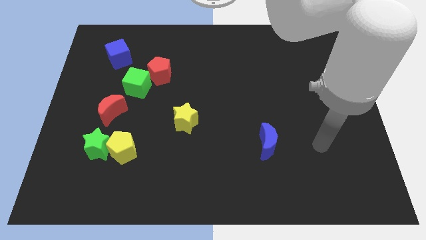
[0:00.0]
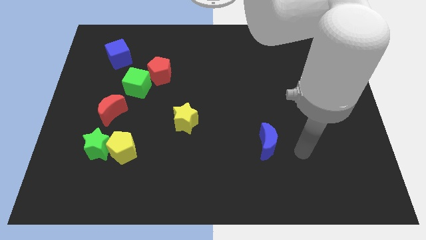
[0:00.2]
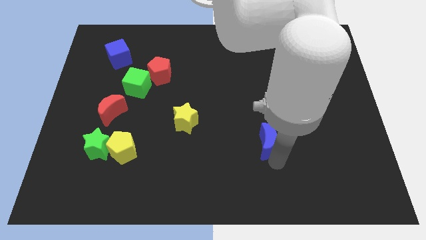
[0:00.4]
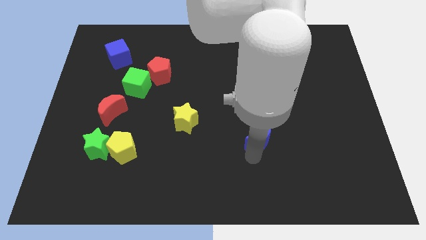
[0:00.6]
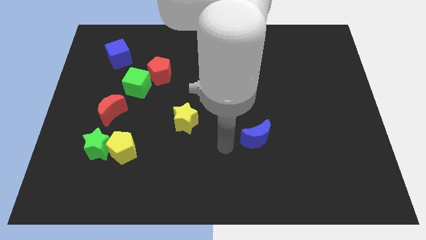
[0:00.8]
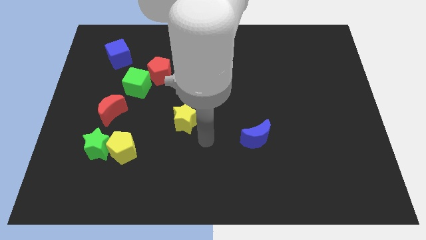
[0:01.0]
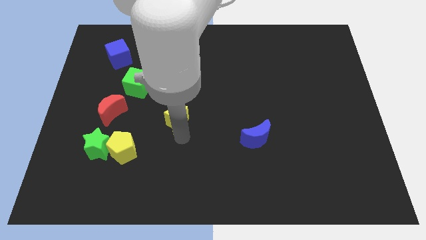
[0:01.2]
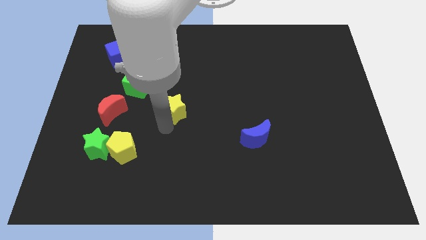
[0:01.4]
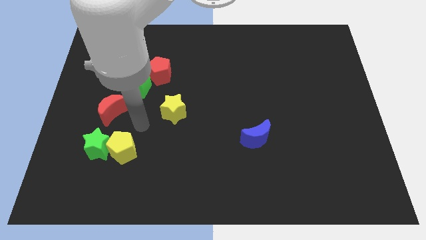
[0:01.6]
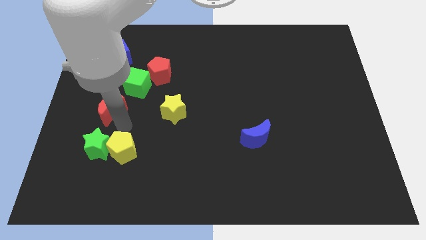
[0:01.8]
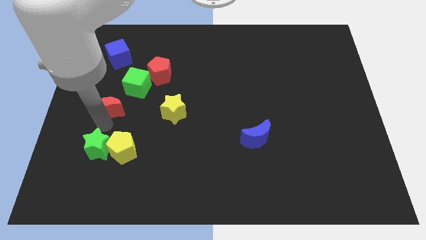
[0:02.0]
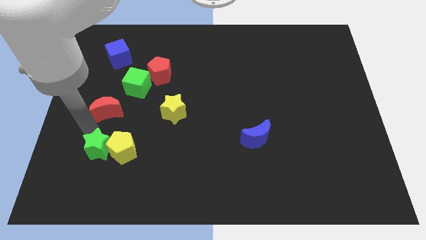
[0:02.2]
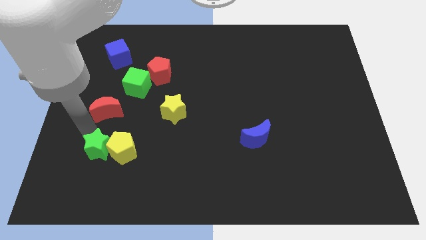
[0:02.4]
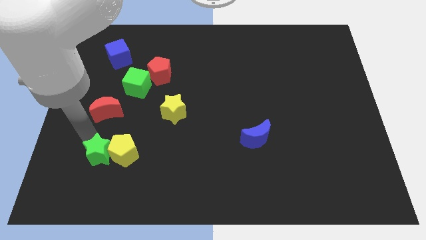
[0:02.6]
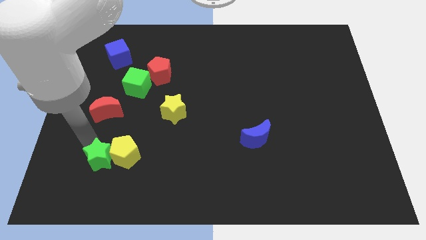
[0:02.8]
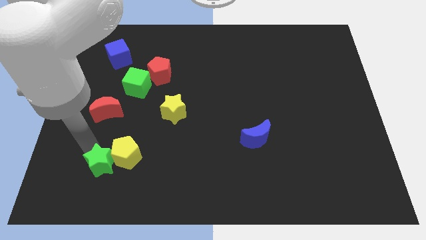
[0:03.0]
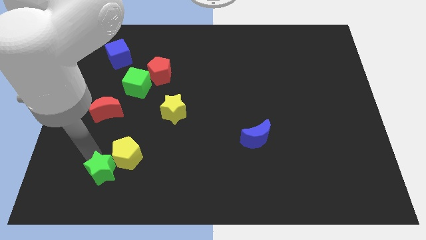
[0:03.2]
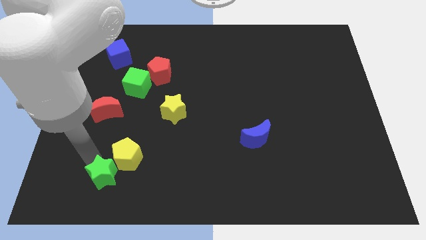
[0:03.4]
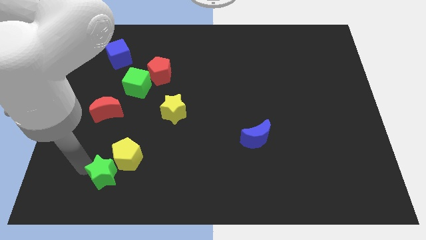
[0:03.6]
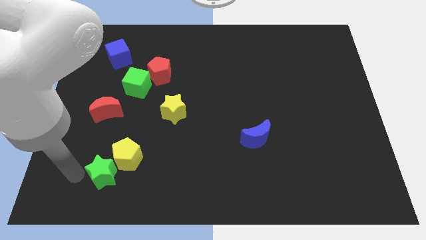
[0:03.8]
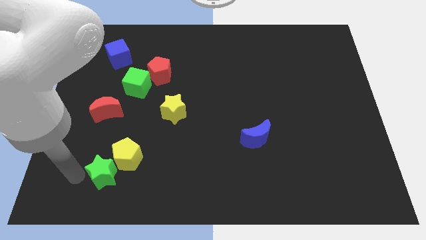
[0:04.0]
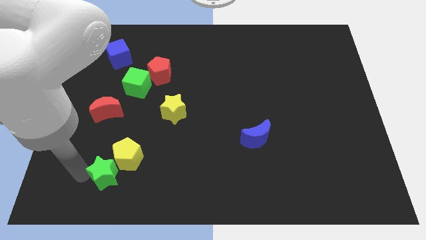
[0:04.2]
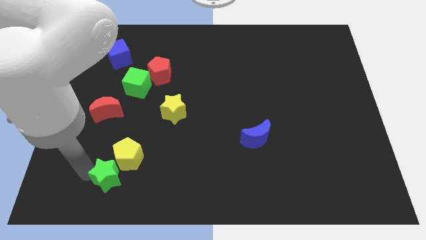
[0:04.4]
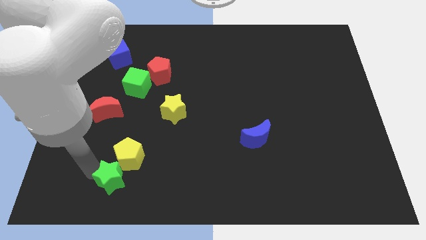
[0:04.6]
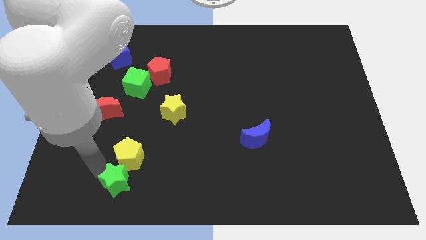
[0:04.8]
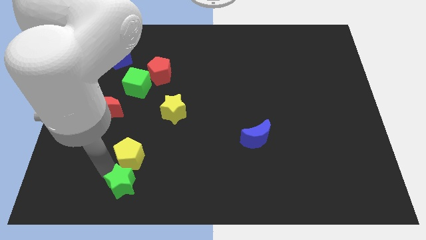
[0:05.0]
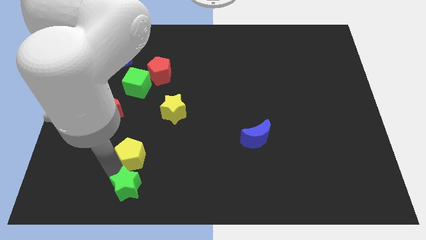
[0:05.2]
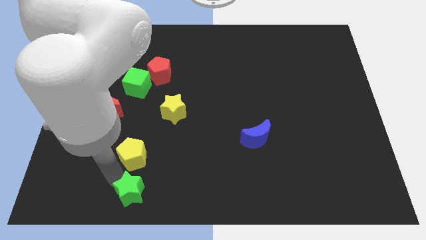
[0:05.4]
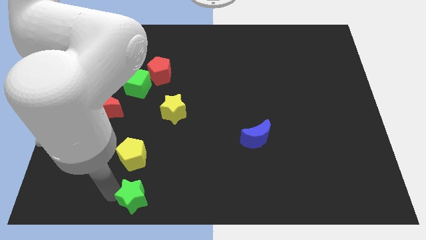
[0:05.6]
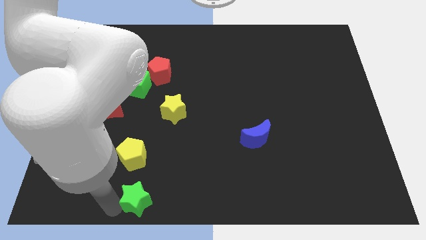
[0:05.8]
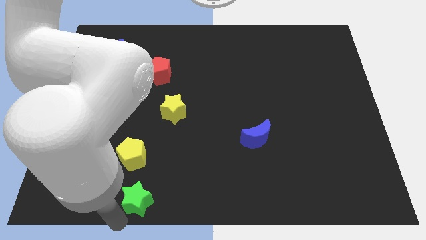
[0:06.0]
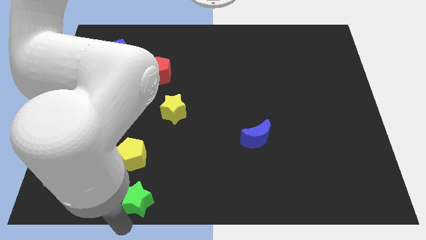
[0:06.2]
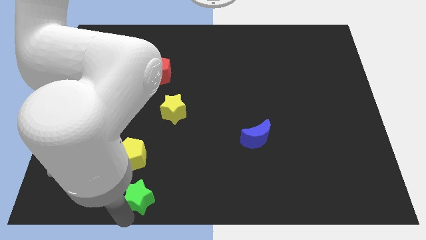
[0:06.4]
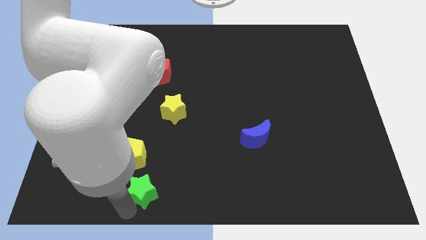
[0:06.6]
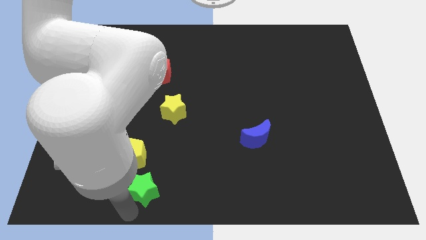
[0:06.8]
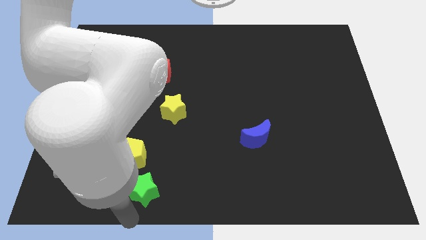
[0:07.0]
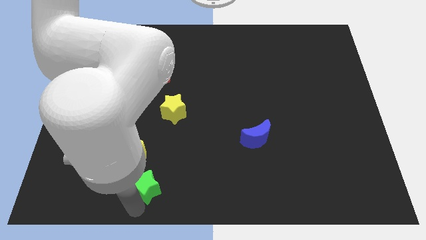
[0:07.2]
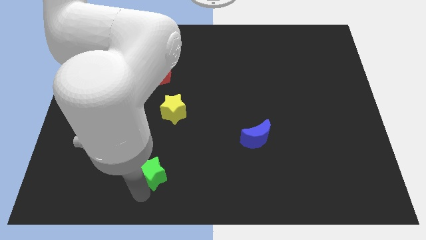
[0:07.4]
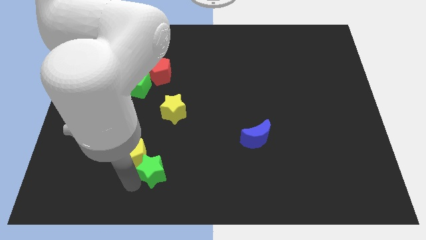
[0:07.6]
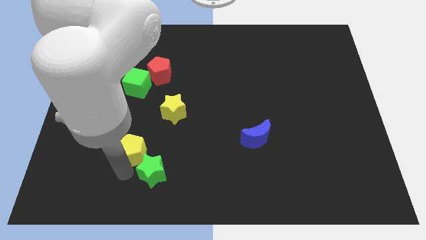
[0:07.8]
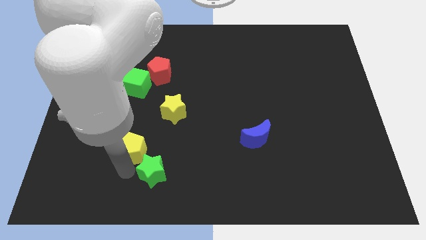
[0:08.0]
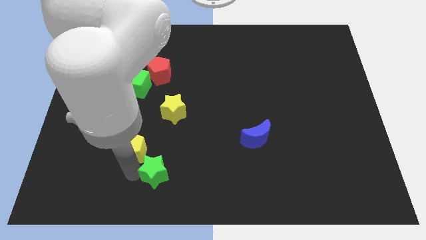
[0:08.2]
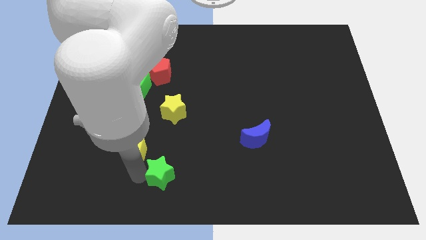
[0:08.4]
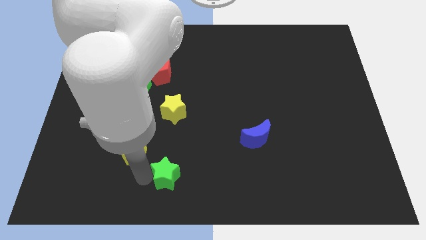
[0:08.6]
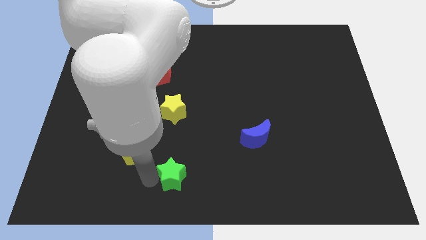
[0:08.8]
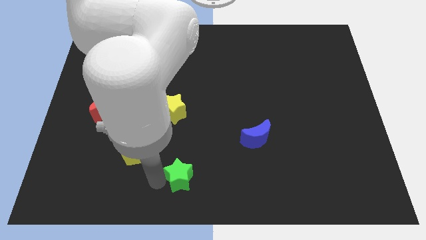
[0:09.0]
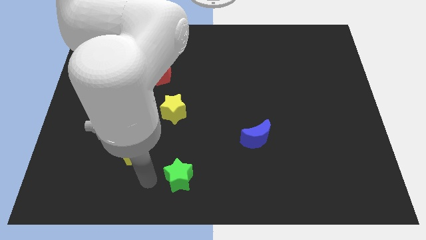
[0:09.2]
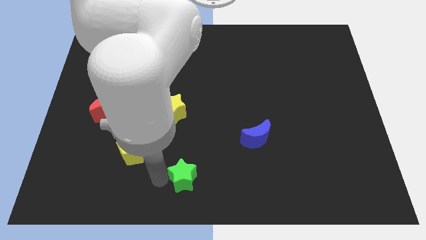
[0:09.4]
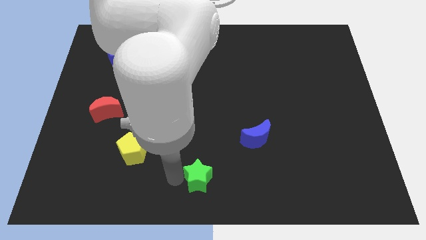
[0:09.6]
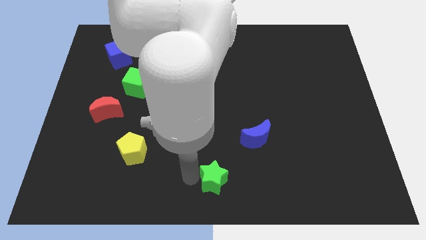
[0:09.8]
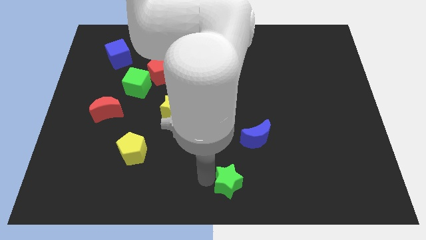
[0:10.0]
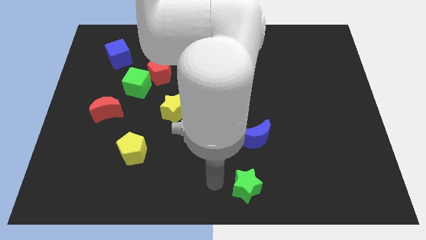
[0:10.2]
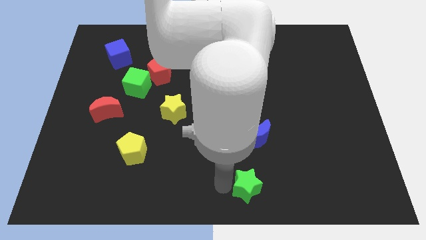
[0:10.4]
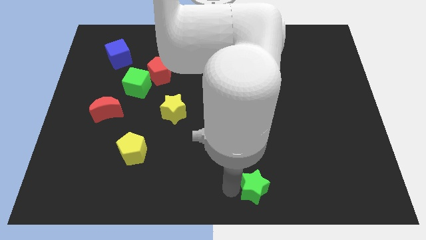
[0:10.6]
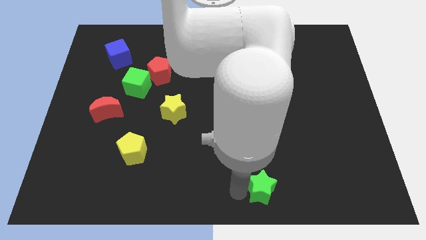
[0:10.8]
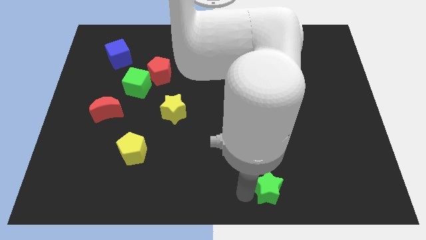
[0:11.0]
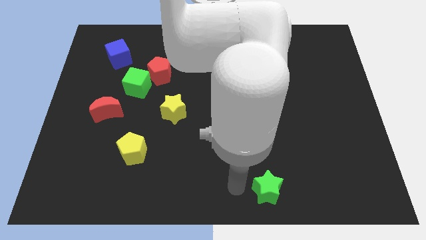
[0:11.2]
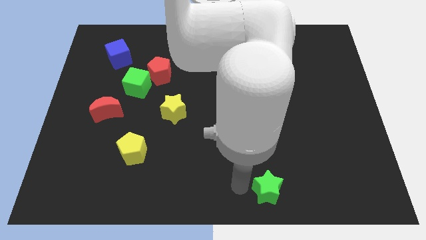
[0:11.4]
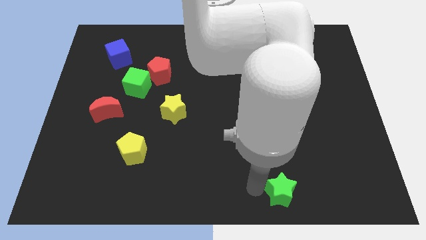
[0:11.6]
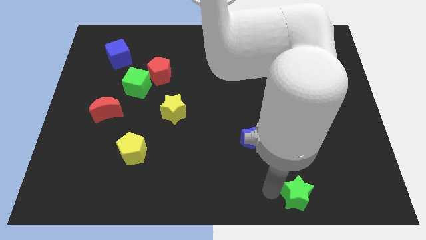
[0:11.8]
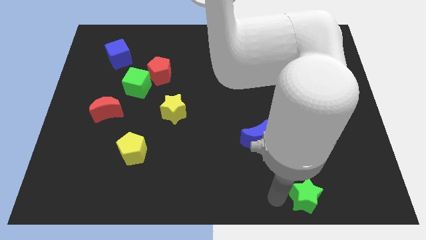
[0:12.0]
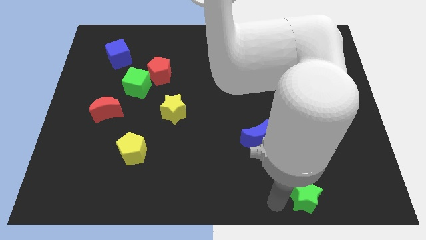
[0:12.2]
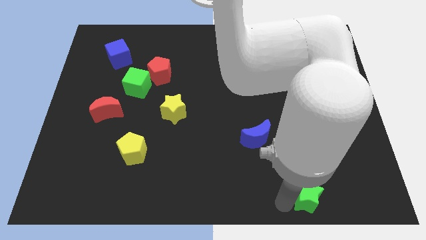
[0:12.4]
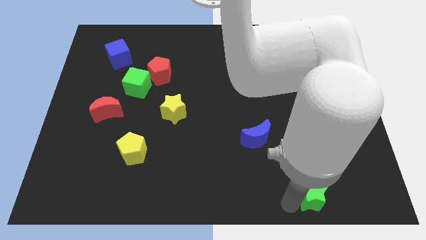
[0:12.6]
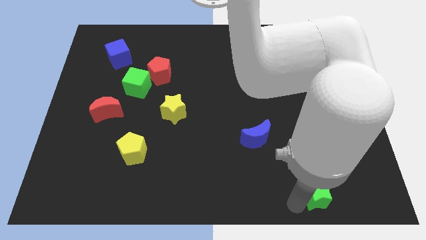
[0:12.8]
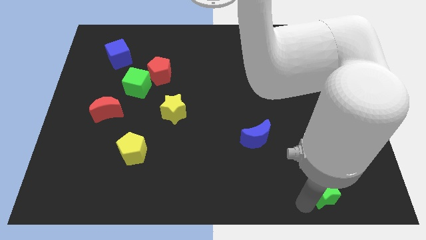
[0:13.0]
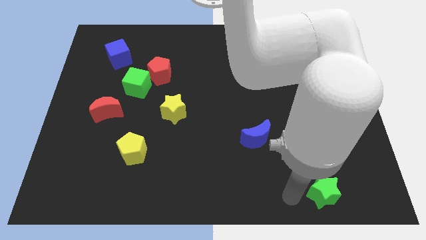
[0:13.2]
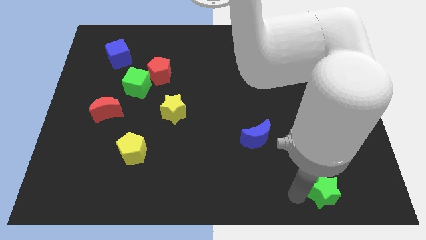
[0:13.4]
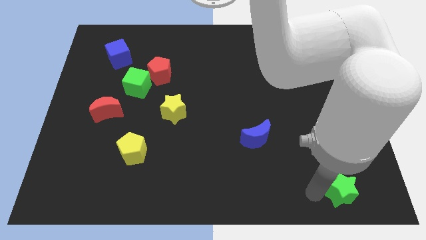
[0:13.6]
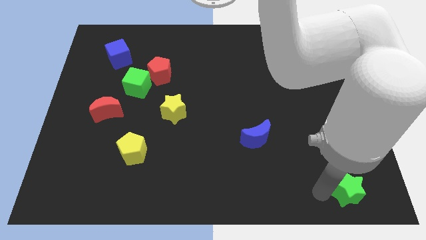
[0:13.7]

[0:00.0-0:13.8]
push the green star to the bottom right of the board

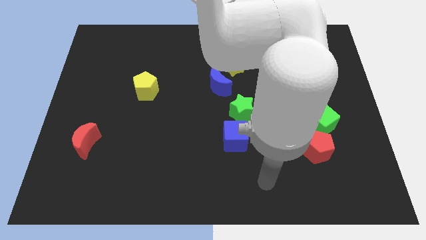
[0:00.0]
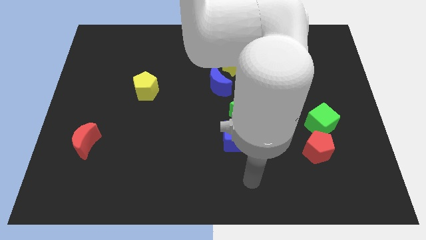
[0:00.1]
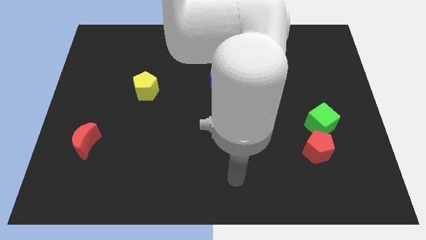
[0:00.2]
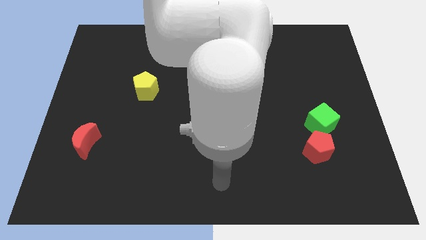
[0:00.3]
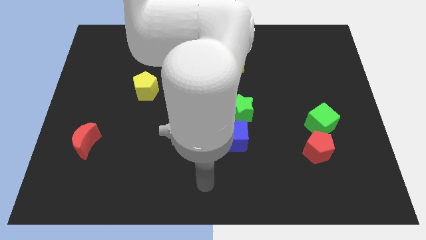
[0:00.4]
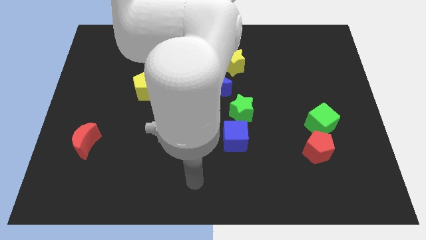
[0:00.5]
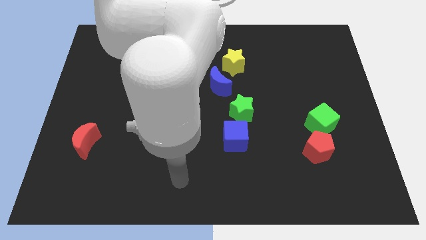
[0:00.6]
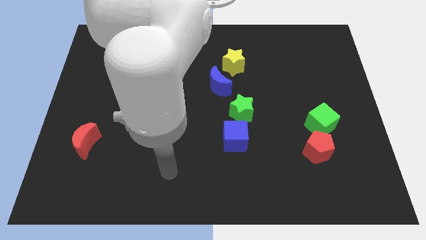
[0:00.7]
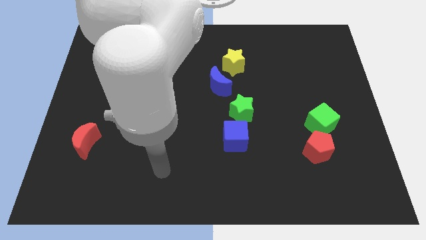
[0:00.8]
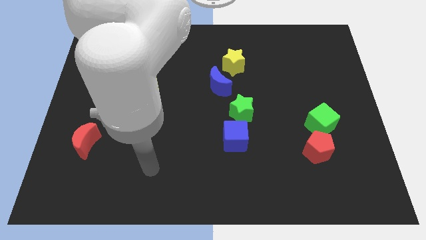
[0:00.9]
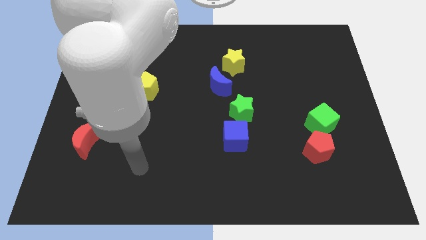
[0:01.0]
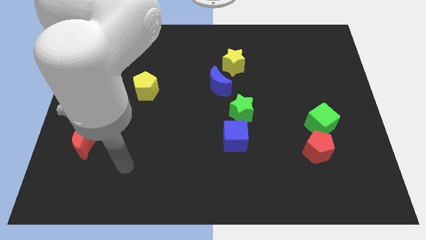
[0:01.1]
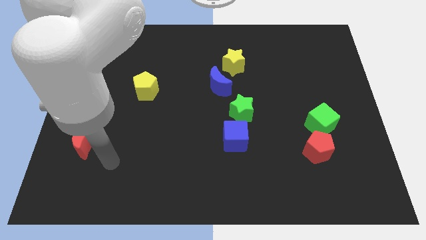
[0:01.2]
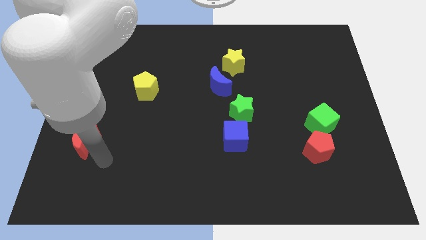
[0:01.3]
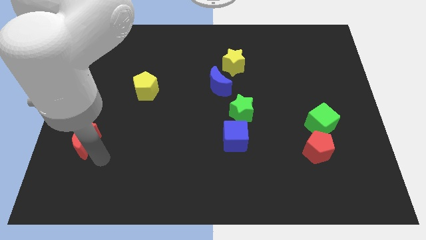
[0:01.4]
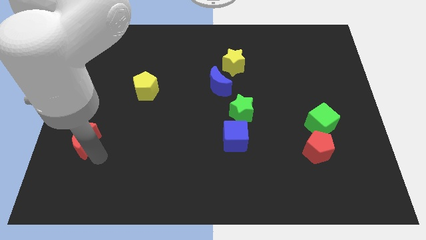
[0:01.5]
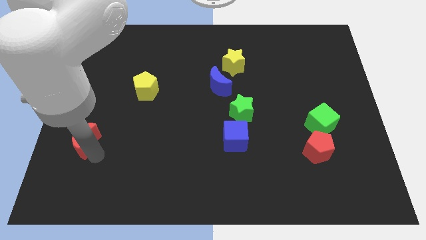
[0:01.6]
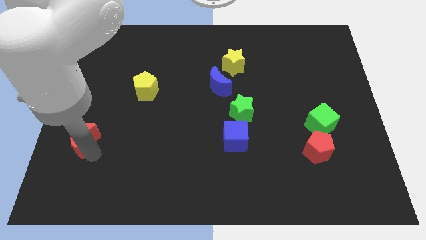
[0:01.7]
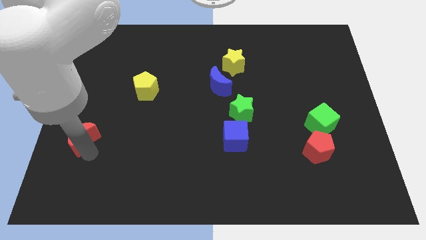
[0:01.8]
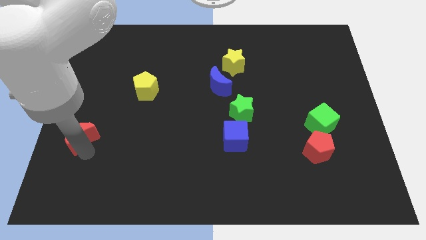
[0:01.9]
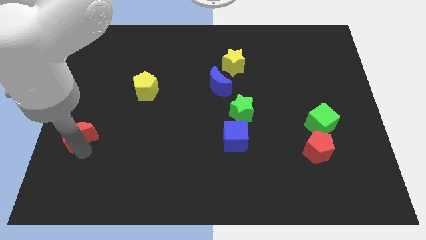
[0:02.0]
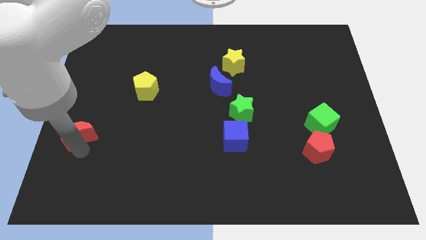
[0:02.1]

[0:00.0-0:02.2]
push the red moon to the center left
